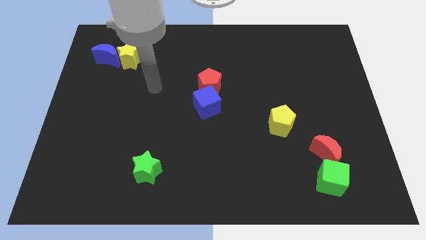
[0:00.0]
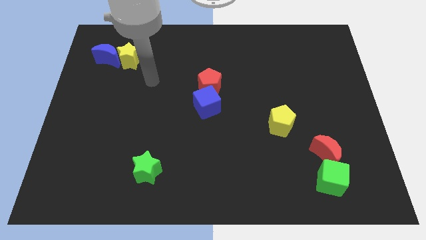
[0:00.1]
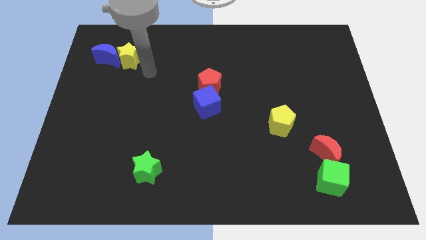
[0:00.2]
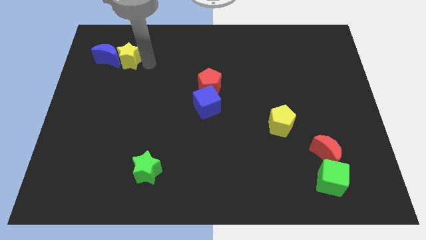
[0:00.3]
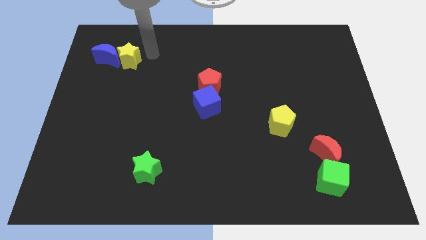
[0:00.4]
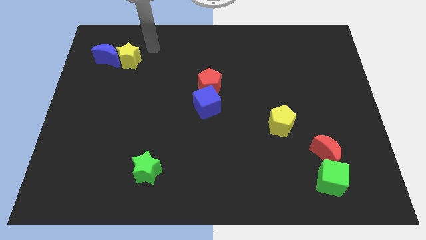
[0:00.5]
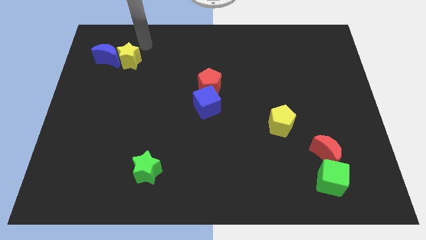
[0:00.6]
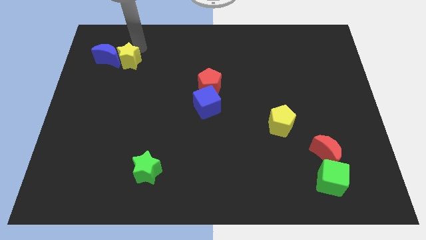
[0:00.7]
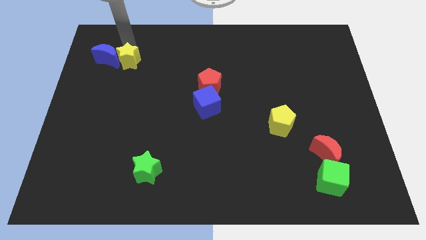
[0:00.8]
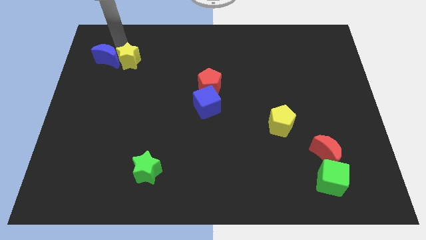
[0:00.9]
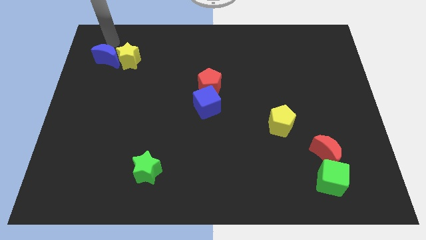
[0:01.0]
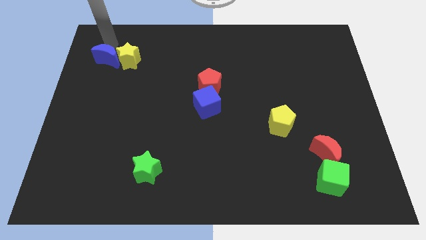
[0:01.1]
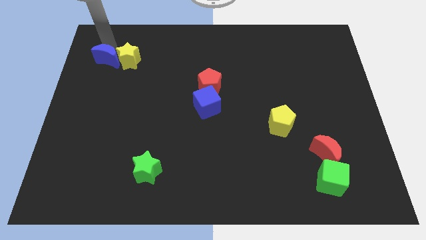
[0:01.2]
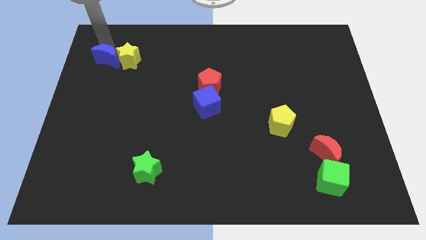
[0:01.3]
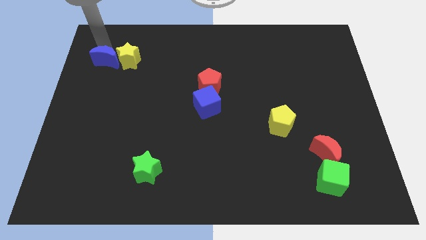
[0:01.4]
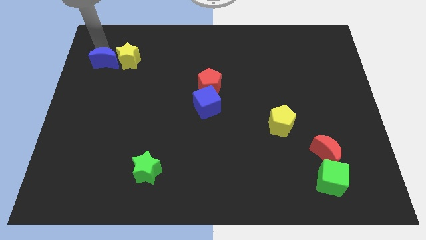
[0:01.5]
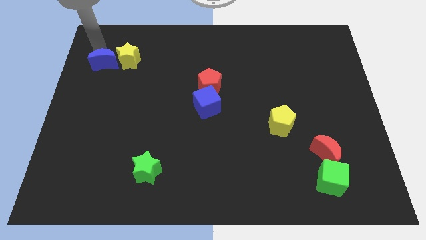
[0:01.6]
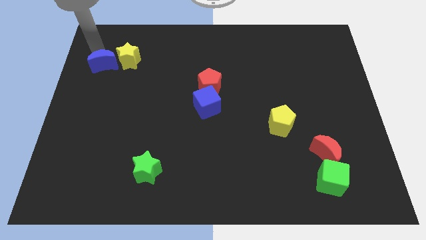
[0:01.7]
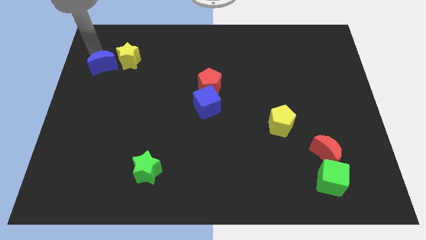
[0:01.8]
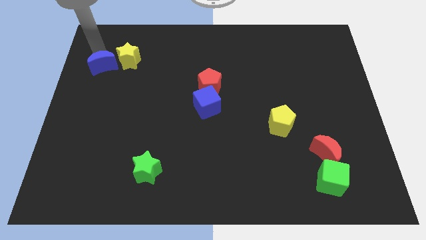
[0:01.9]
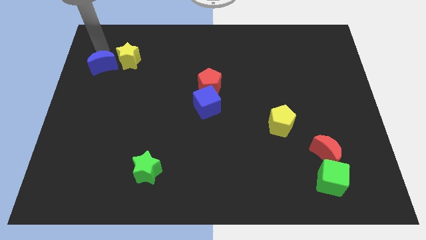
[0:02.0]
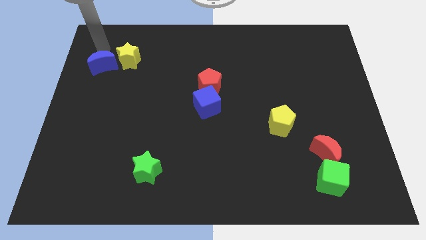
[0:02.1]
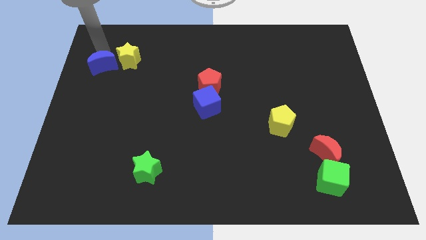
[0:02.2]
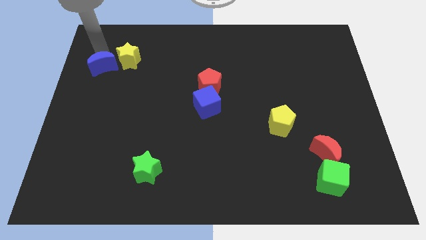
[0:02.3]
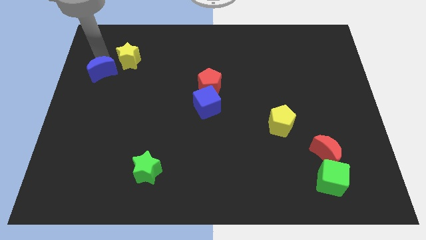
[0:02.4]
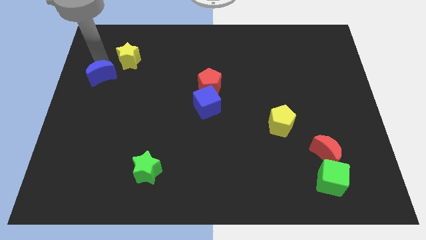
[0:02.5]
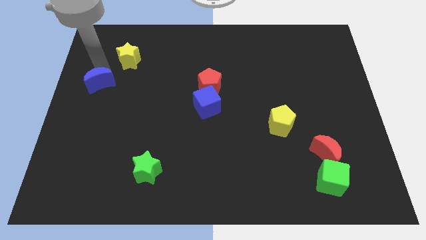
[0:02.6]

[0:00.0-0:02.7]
move the blue moon downwards a little bit

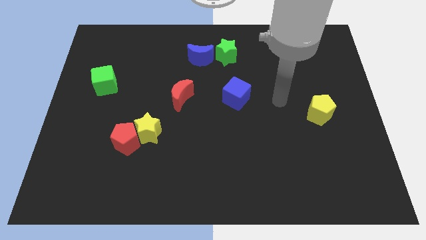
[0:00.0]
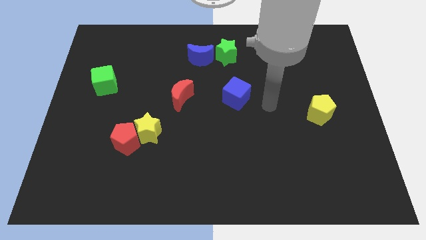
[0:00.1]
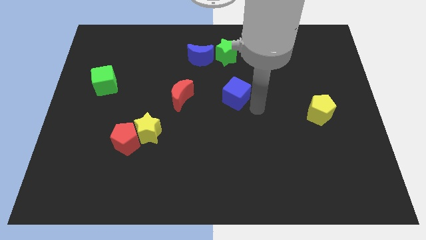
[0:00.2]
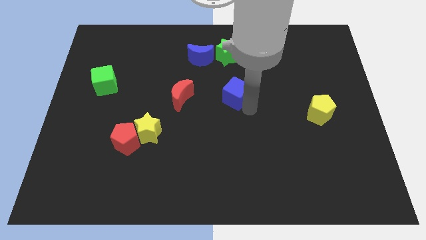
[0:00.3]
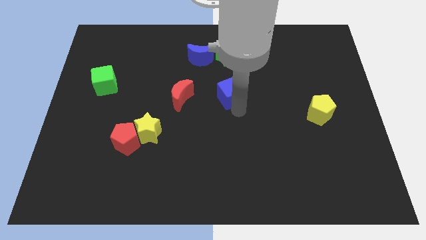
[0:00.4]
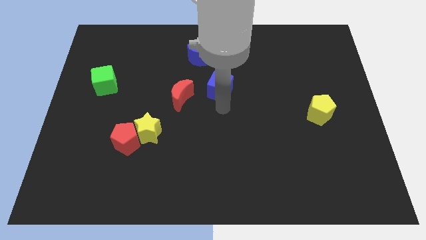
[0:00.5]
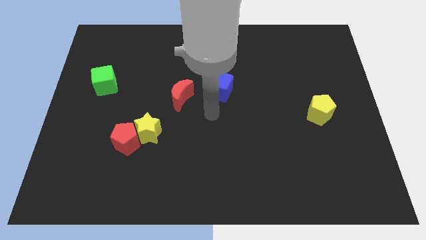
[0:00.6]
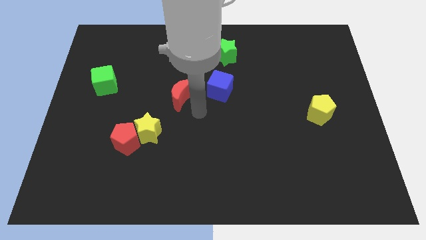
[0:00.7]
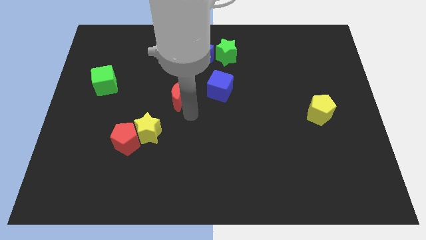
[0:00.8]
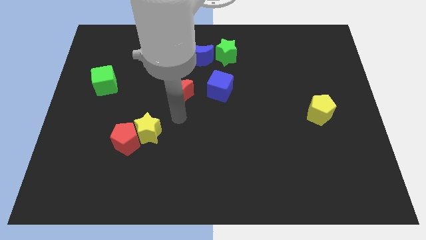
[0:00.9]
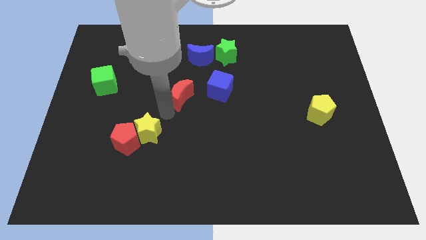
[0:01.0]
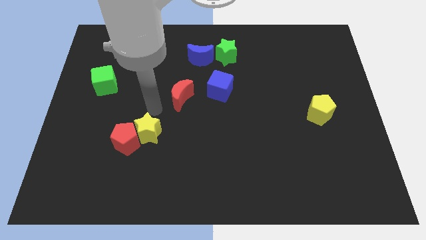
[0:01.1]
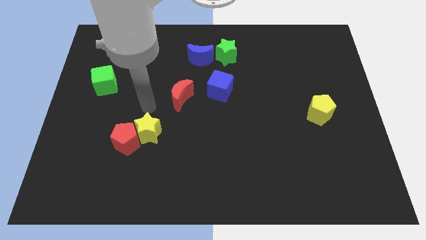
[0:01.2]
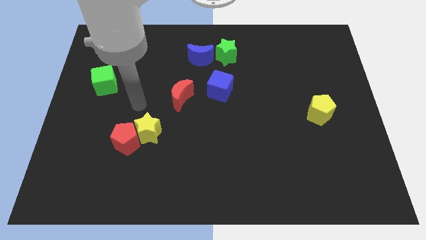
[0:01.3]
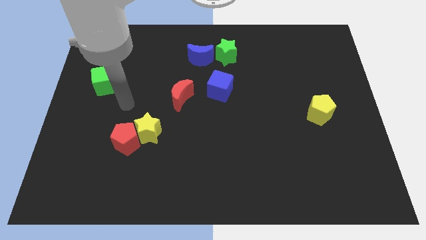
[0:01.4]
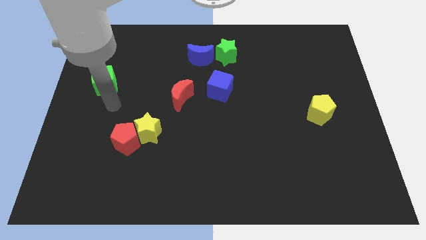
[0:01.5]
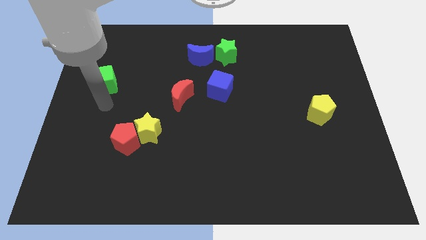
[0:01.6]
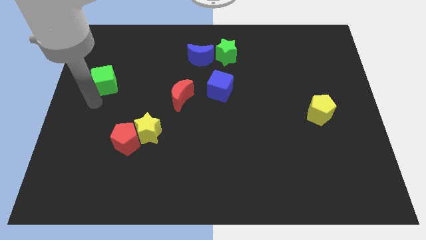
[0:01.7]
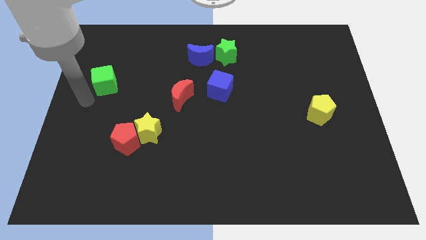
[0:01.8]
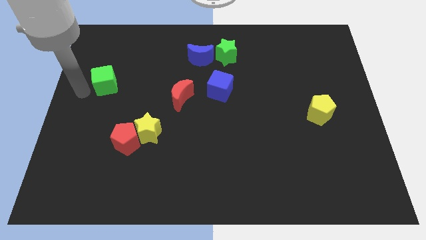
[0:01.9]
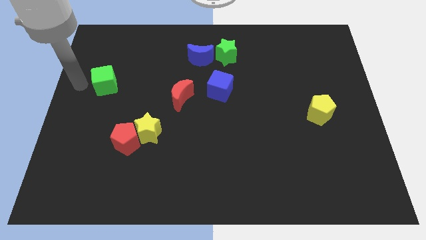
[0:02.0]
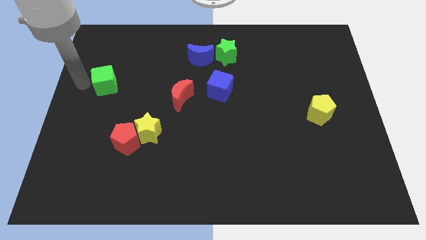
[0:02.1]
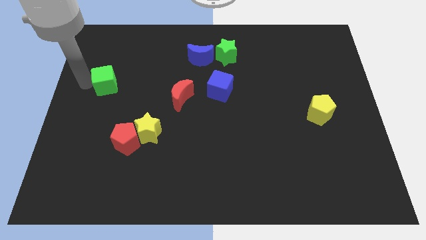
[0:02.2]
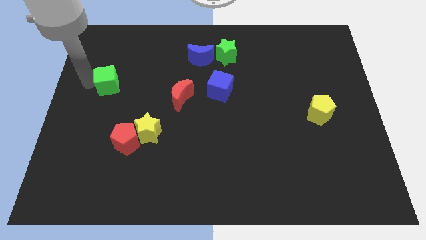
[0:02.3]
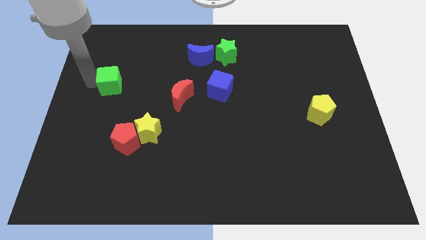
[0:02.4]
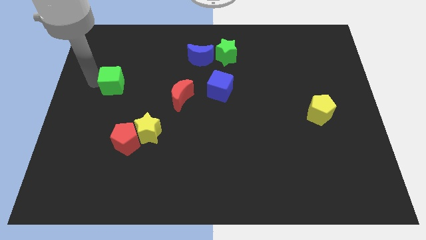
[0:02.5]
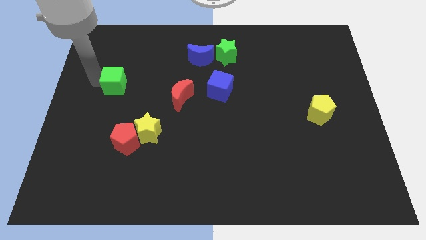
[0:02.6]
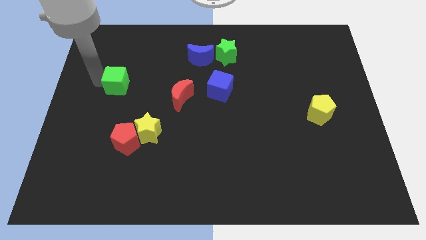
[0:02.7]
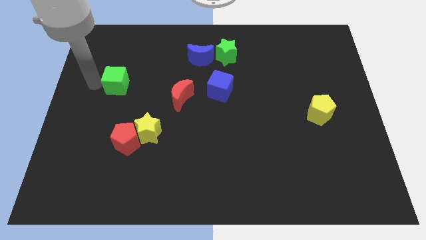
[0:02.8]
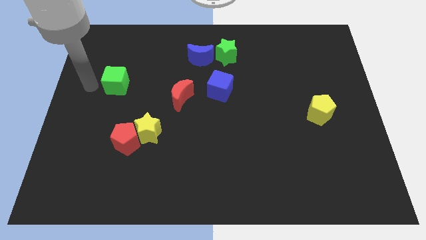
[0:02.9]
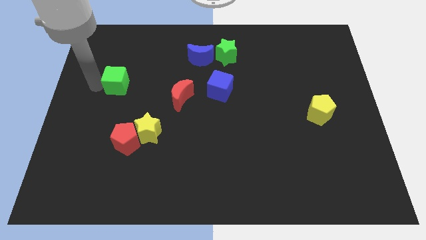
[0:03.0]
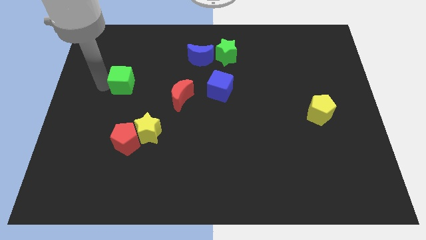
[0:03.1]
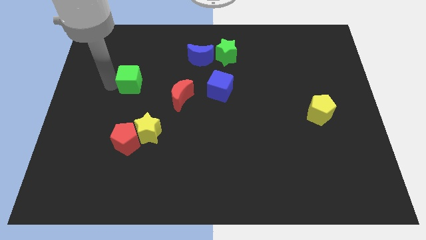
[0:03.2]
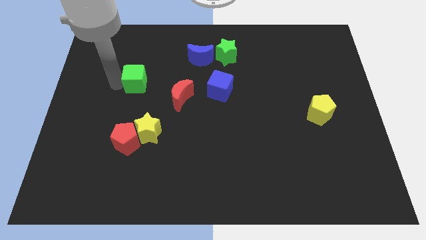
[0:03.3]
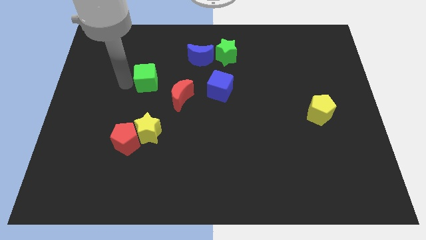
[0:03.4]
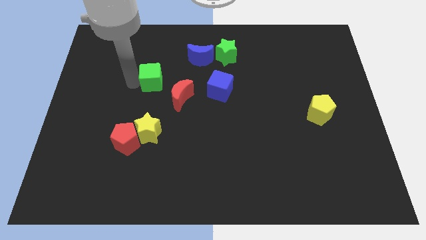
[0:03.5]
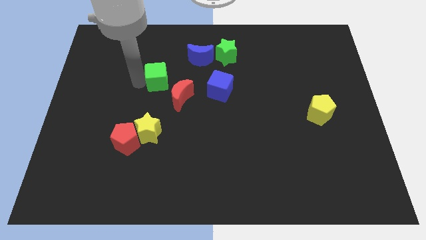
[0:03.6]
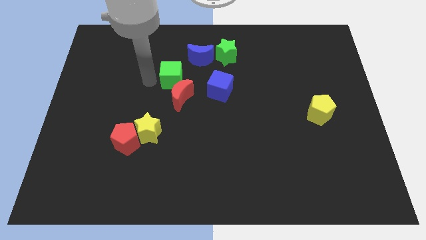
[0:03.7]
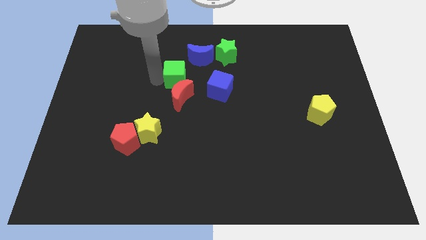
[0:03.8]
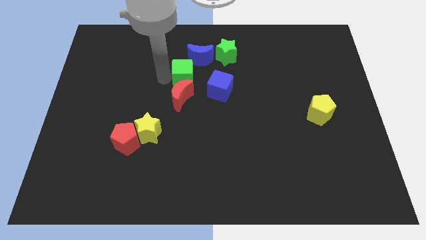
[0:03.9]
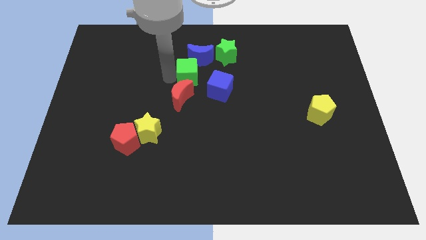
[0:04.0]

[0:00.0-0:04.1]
move the green cube to the right

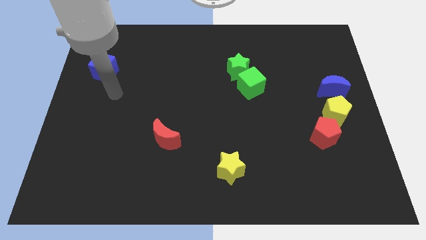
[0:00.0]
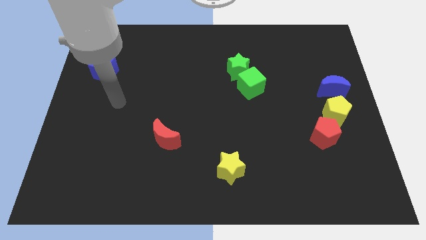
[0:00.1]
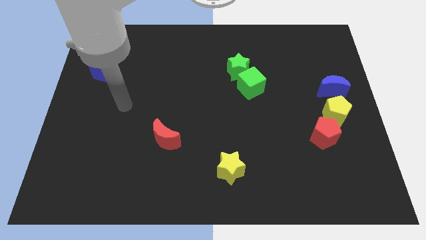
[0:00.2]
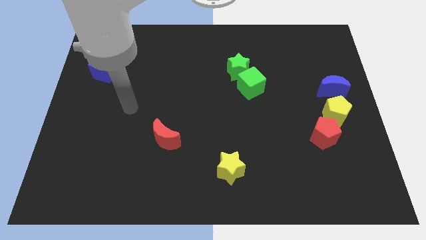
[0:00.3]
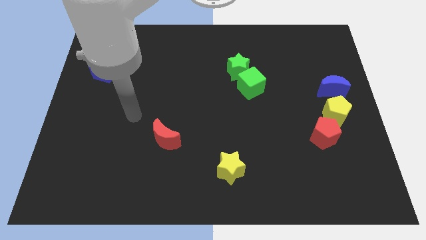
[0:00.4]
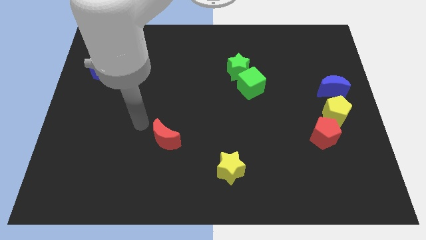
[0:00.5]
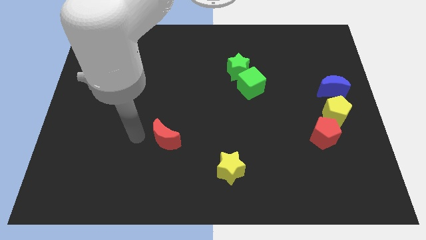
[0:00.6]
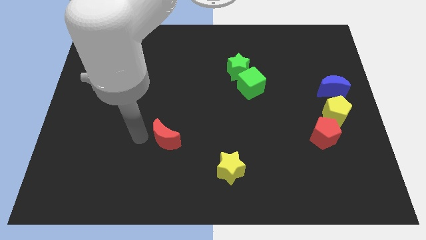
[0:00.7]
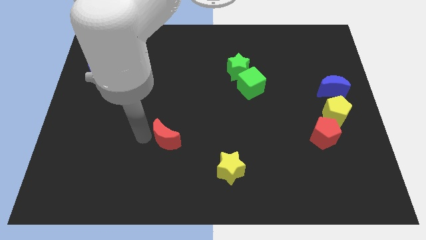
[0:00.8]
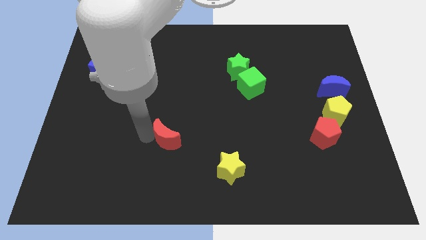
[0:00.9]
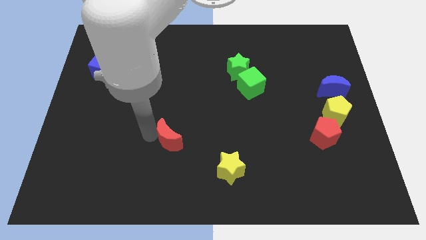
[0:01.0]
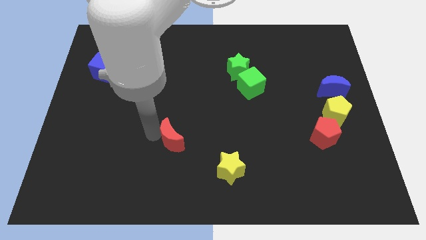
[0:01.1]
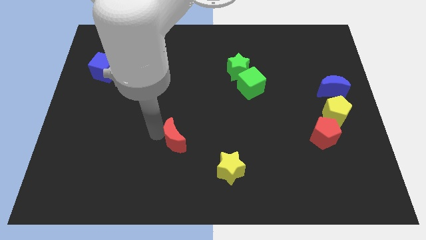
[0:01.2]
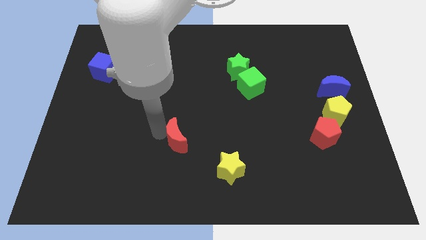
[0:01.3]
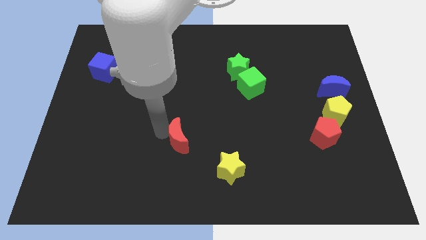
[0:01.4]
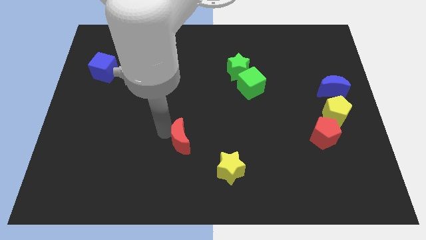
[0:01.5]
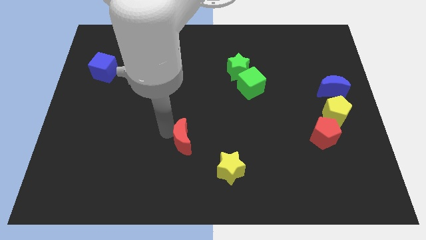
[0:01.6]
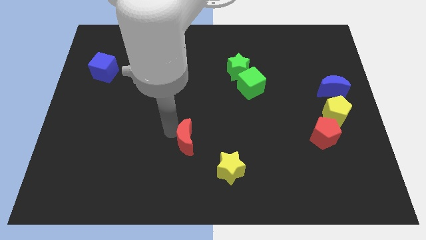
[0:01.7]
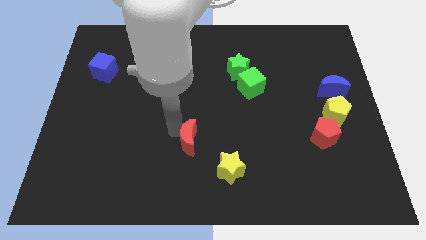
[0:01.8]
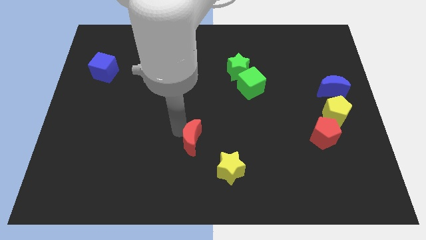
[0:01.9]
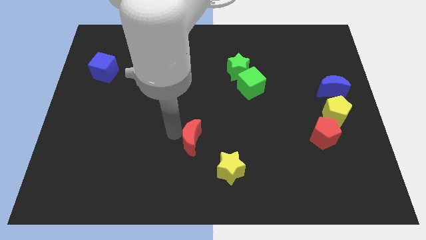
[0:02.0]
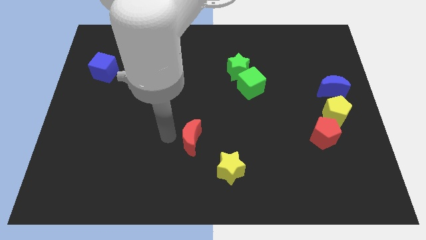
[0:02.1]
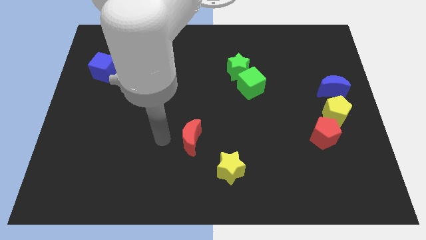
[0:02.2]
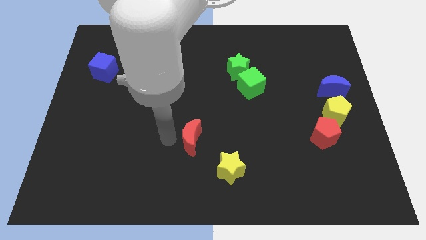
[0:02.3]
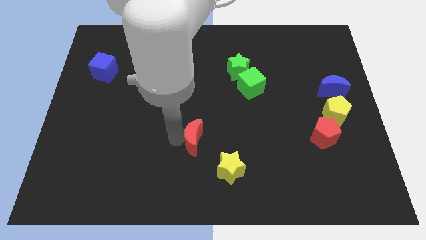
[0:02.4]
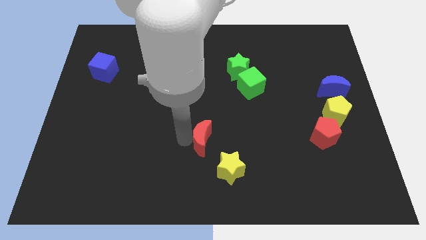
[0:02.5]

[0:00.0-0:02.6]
slightly move the red moon to the right
